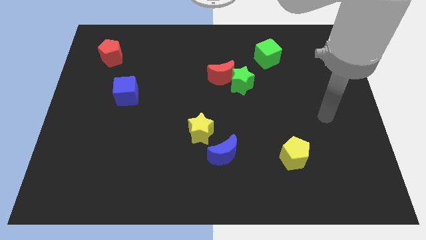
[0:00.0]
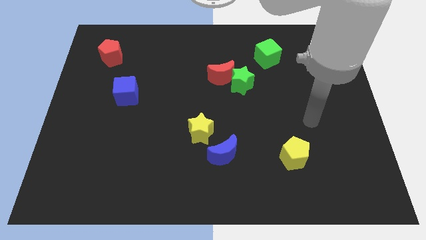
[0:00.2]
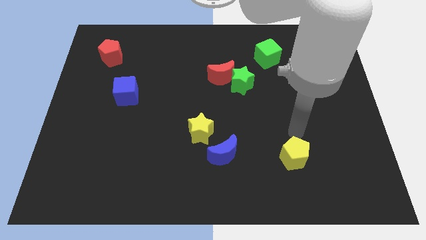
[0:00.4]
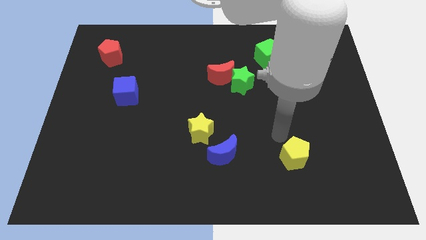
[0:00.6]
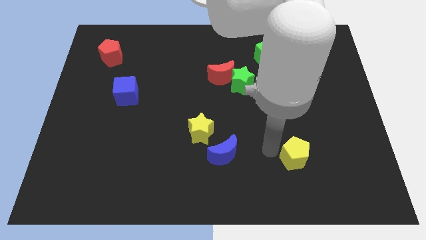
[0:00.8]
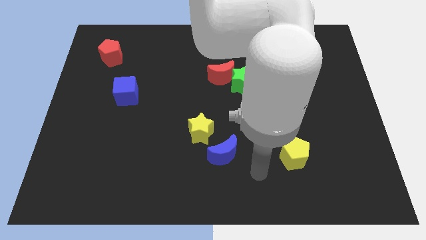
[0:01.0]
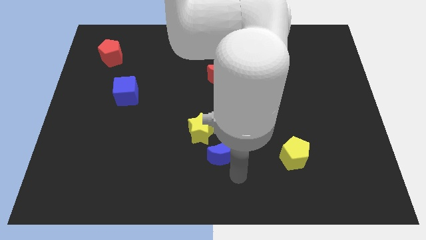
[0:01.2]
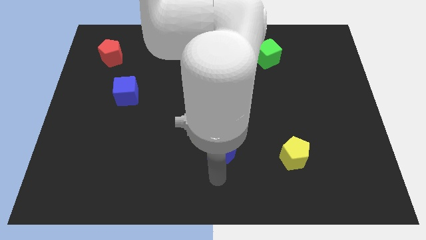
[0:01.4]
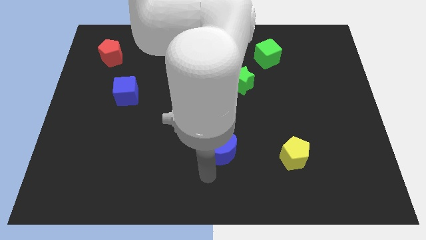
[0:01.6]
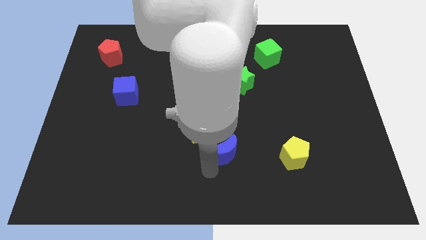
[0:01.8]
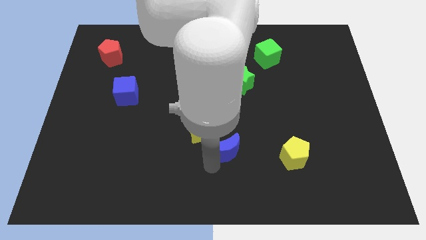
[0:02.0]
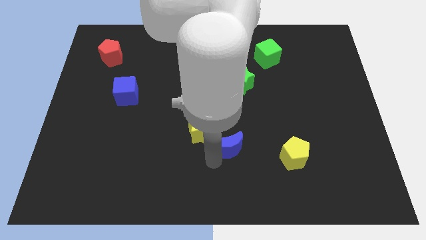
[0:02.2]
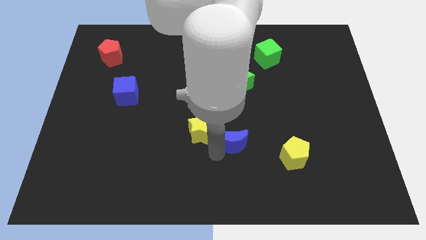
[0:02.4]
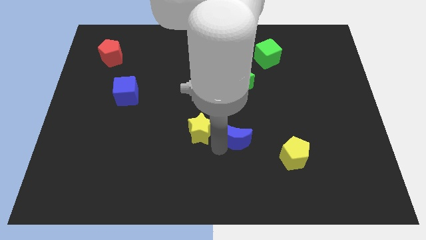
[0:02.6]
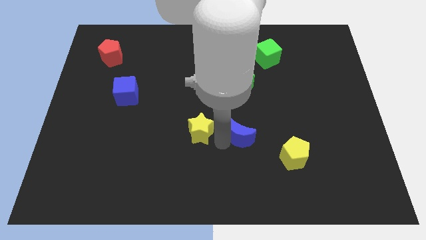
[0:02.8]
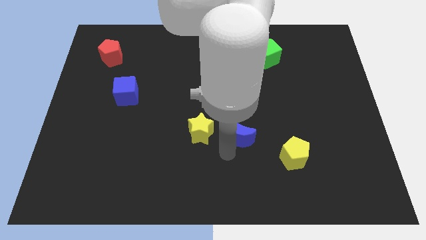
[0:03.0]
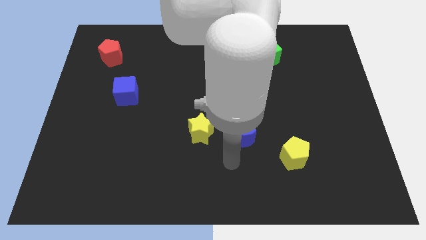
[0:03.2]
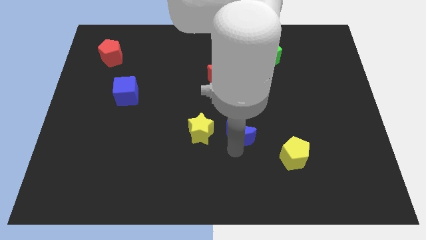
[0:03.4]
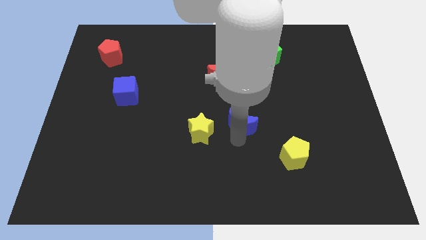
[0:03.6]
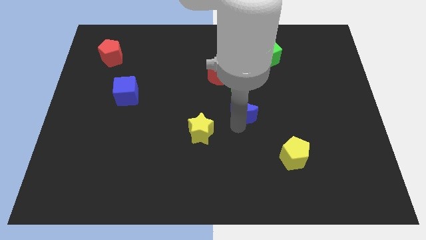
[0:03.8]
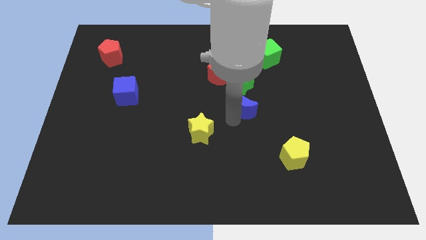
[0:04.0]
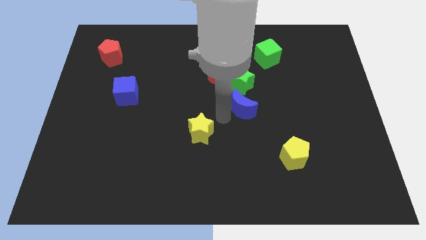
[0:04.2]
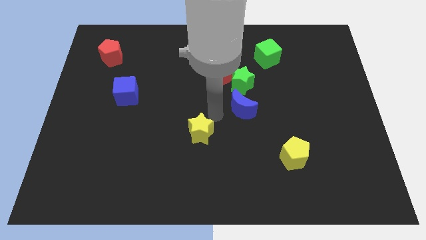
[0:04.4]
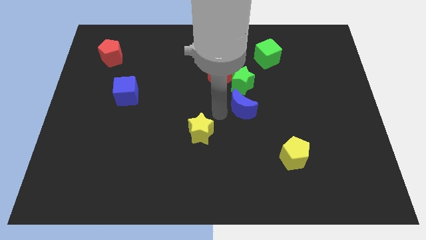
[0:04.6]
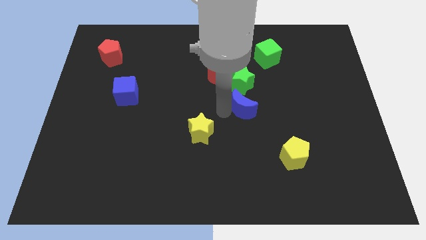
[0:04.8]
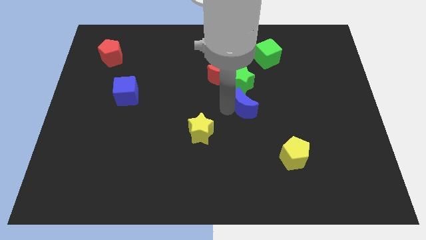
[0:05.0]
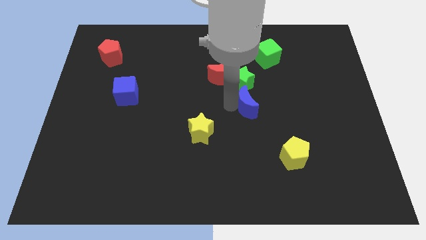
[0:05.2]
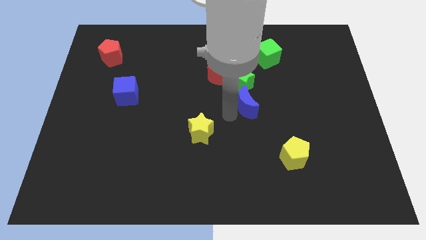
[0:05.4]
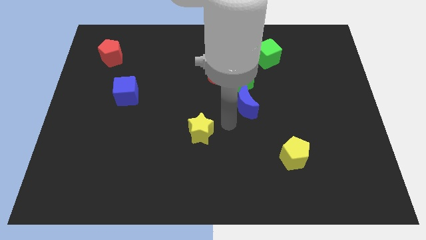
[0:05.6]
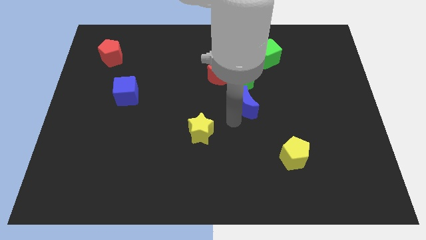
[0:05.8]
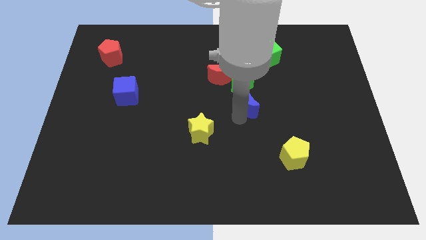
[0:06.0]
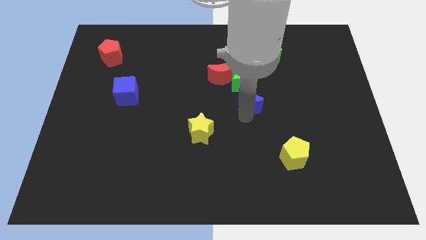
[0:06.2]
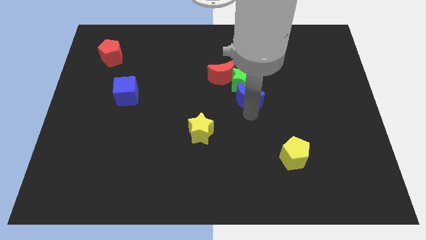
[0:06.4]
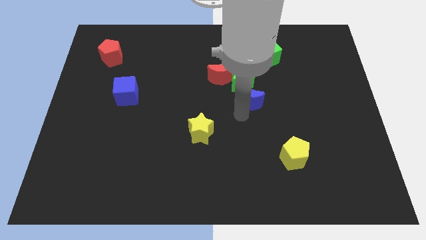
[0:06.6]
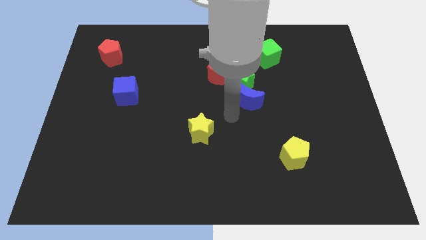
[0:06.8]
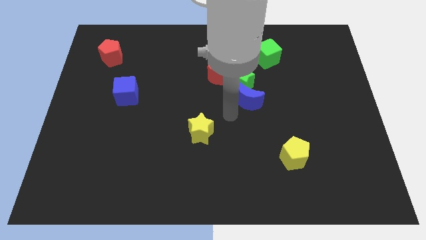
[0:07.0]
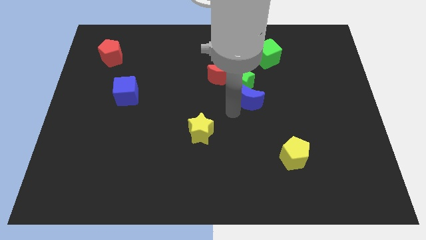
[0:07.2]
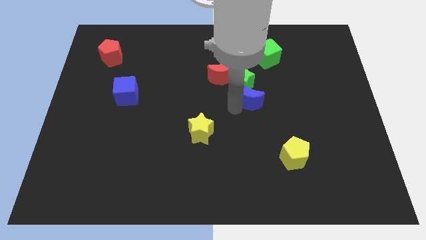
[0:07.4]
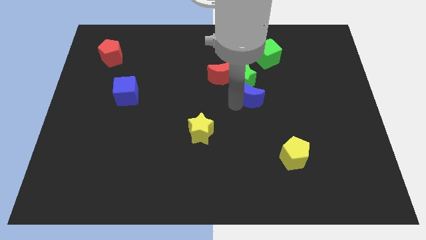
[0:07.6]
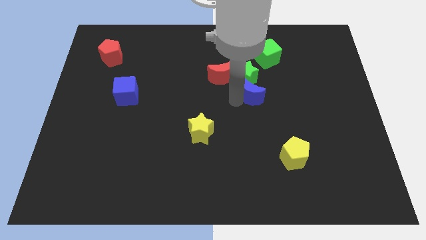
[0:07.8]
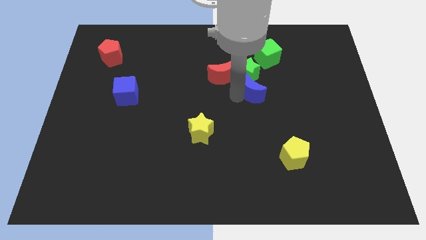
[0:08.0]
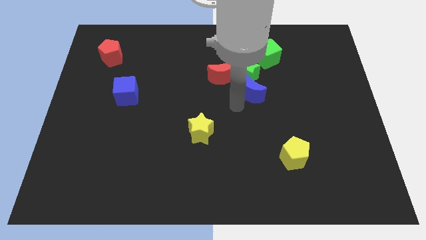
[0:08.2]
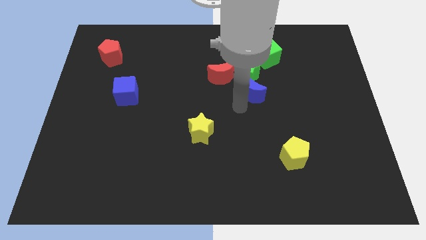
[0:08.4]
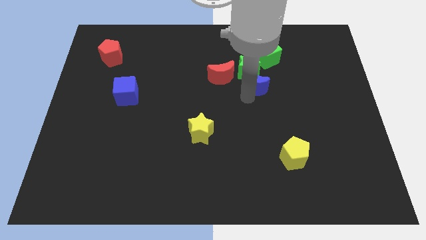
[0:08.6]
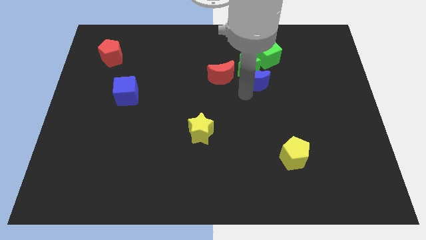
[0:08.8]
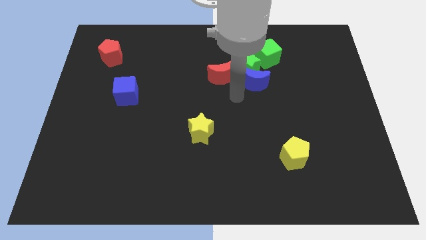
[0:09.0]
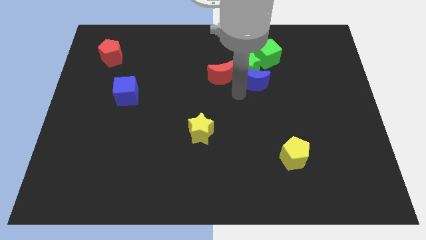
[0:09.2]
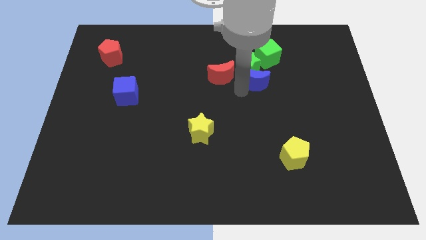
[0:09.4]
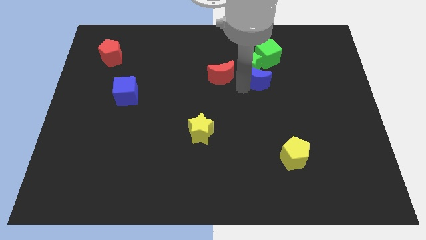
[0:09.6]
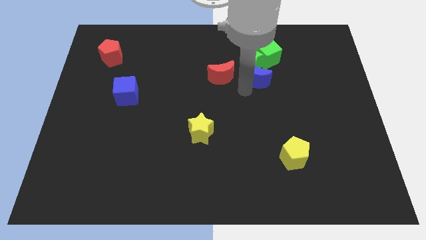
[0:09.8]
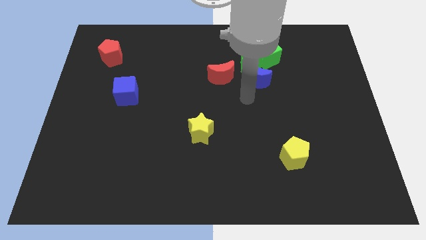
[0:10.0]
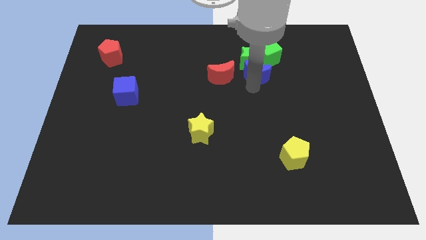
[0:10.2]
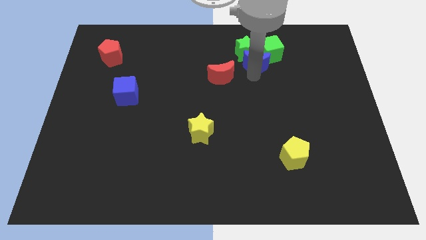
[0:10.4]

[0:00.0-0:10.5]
slide the blue moon to the green cube

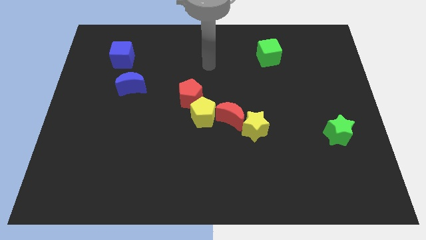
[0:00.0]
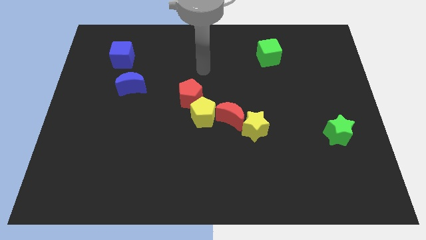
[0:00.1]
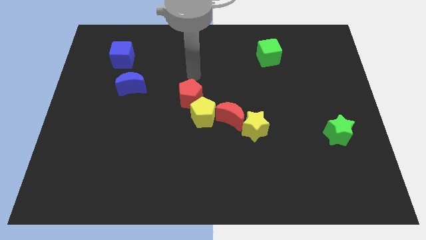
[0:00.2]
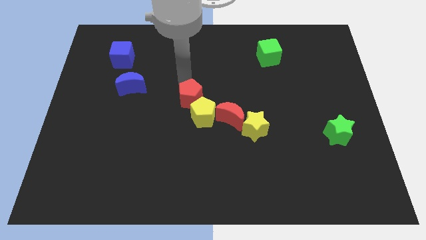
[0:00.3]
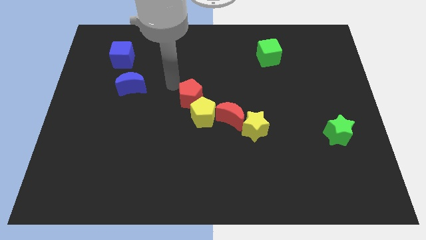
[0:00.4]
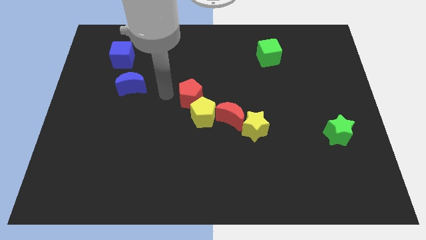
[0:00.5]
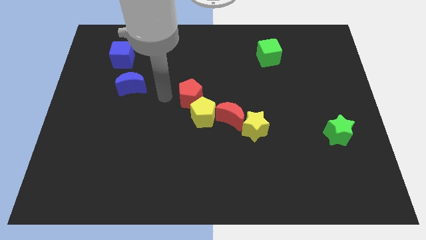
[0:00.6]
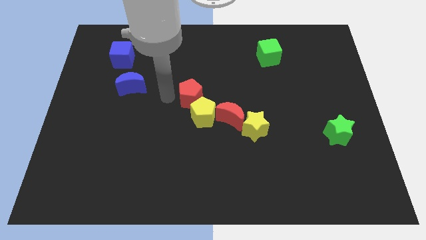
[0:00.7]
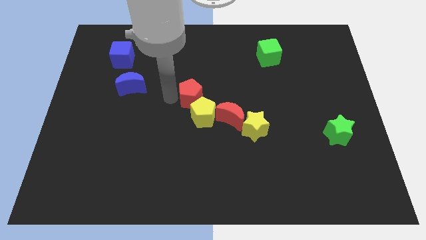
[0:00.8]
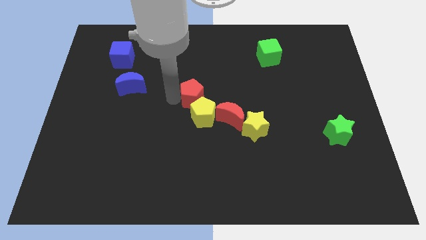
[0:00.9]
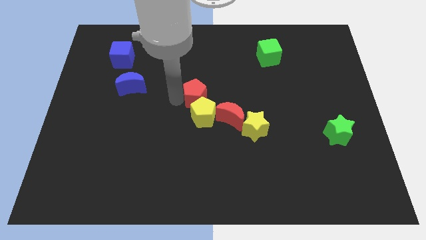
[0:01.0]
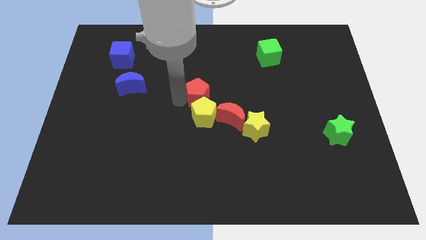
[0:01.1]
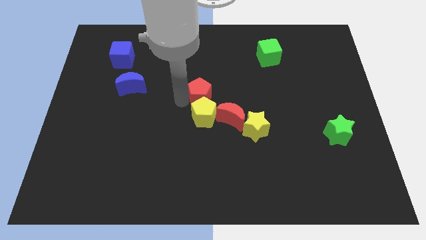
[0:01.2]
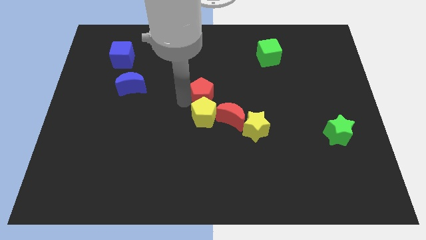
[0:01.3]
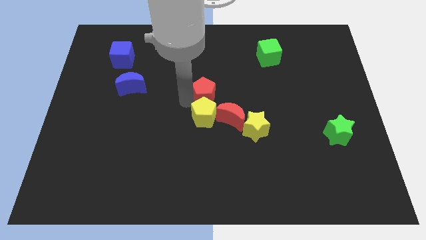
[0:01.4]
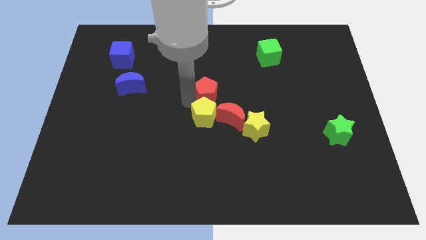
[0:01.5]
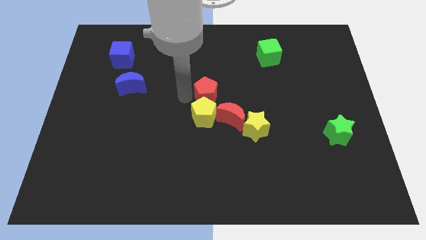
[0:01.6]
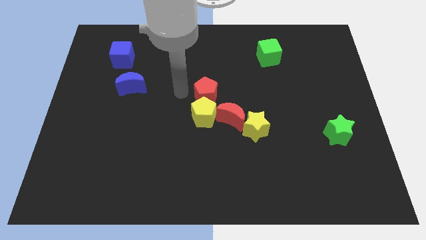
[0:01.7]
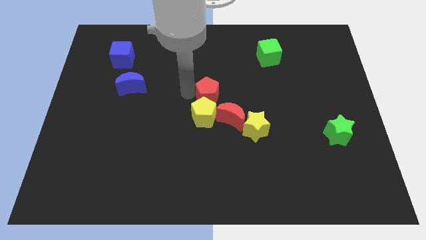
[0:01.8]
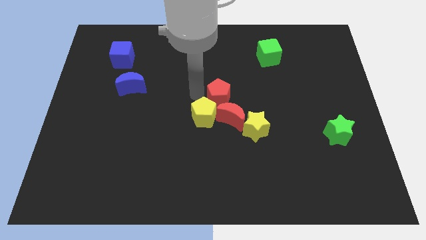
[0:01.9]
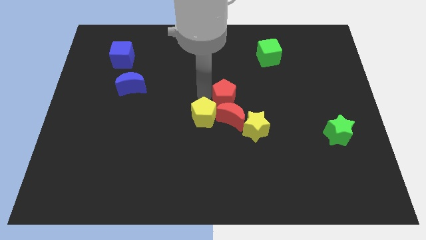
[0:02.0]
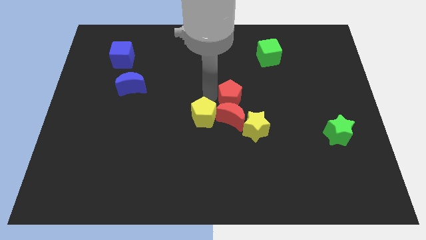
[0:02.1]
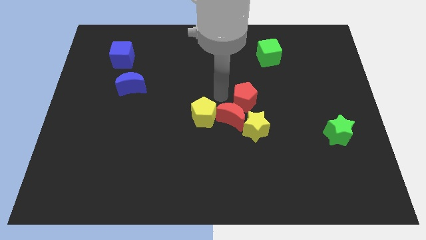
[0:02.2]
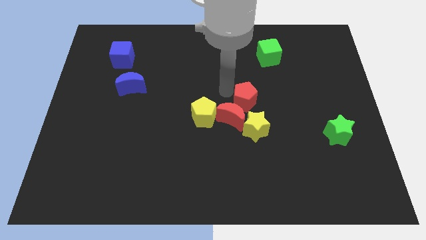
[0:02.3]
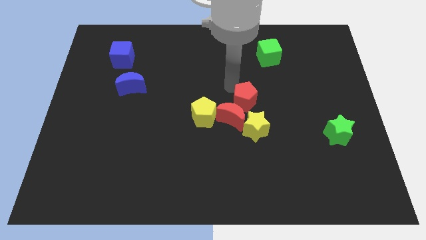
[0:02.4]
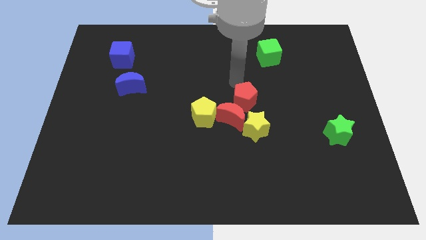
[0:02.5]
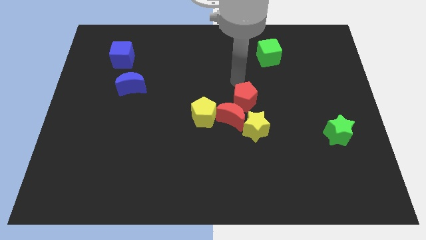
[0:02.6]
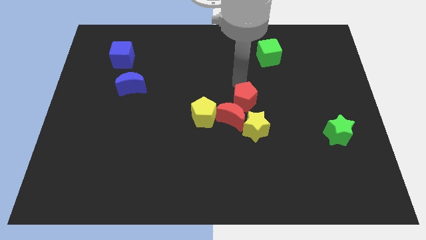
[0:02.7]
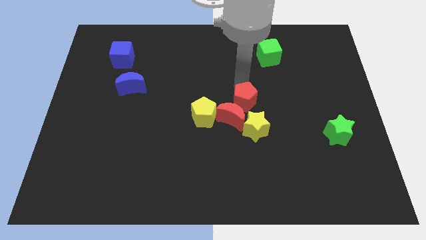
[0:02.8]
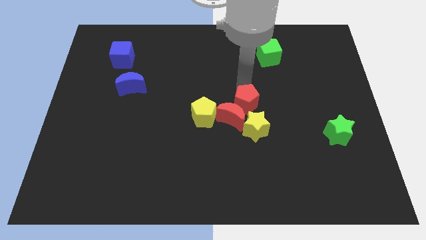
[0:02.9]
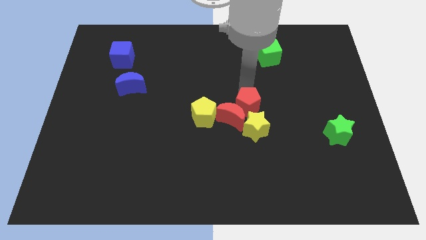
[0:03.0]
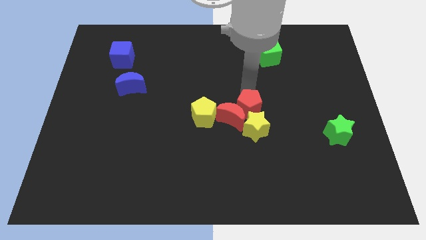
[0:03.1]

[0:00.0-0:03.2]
move the red pentagon towards the yellow star
